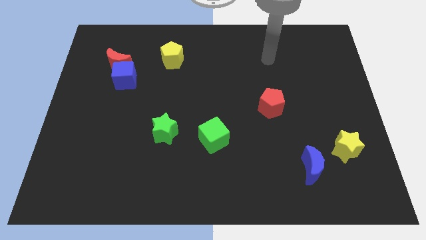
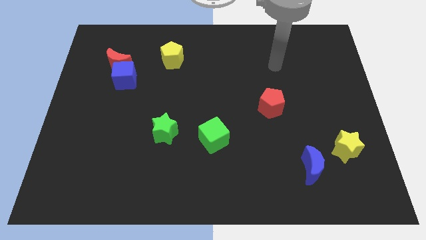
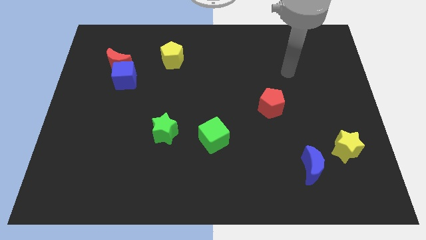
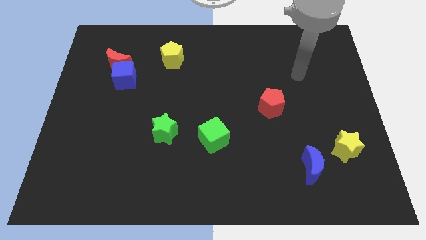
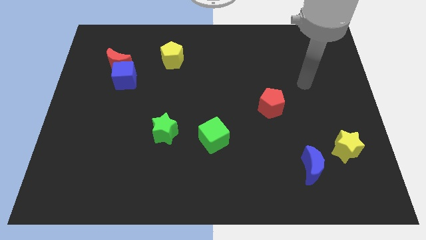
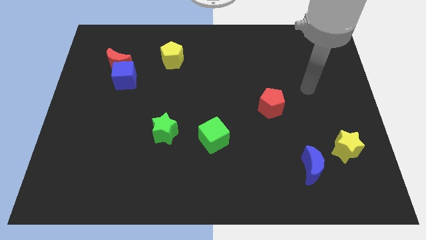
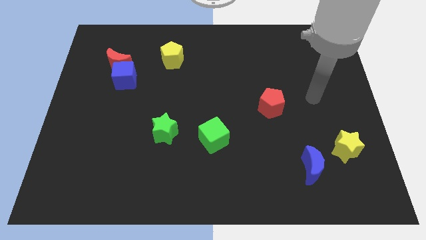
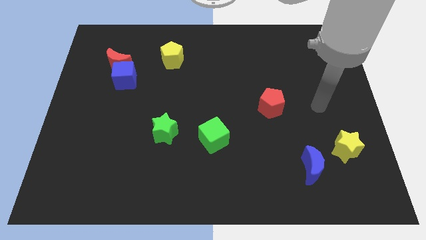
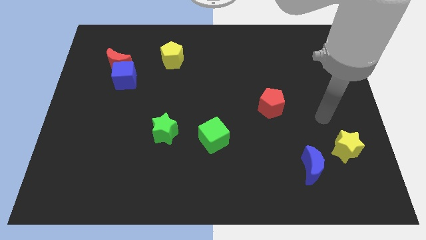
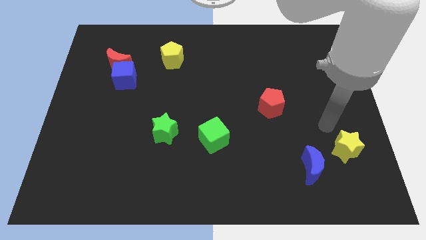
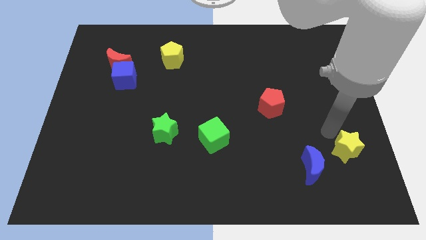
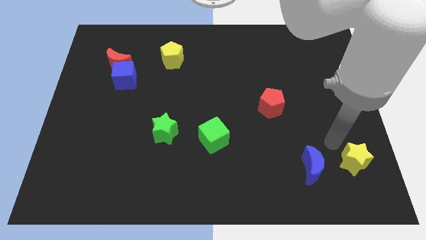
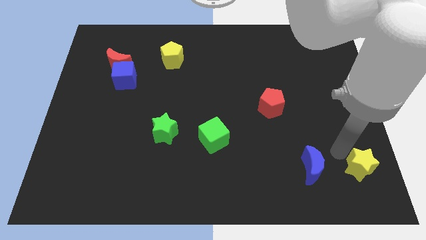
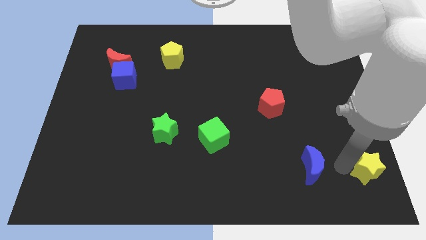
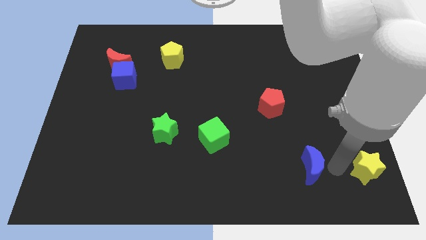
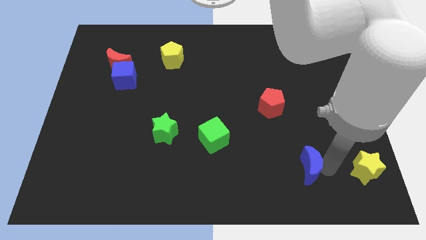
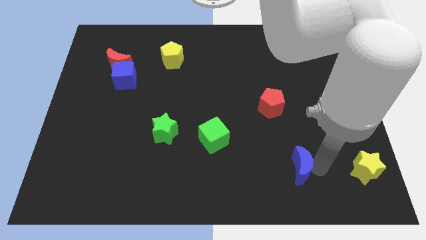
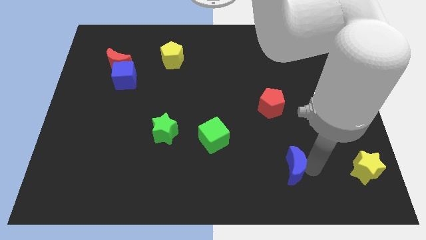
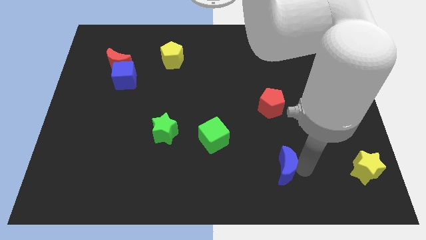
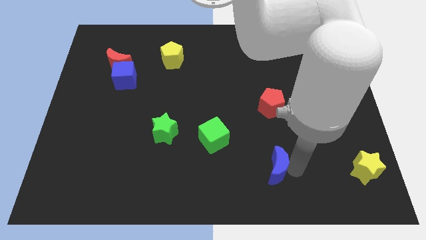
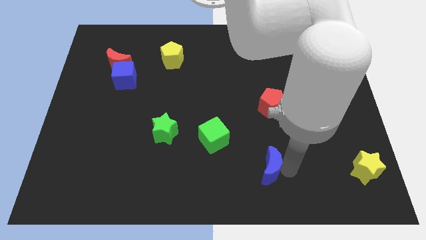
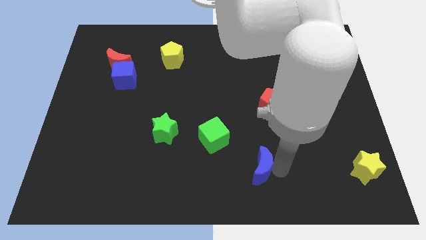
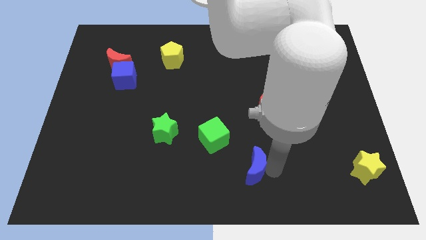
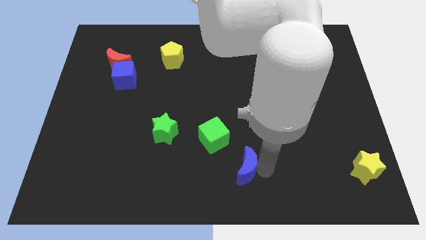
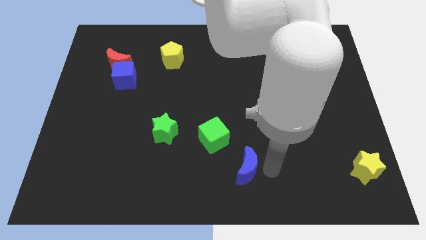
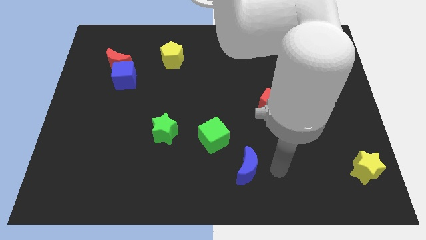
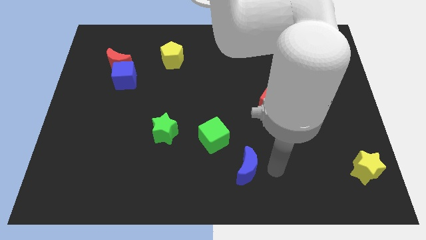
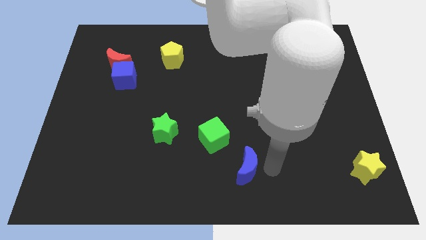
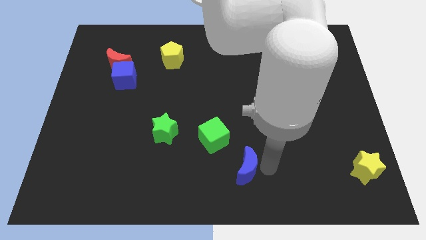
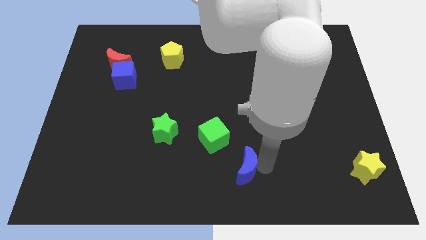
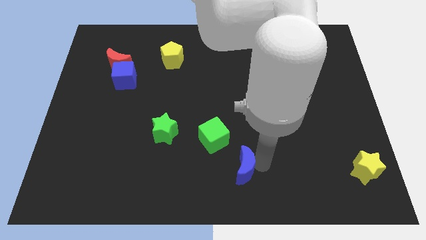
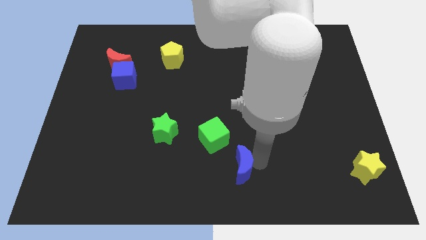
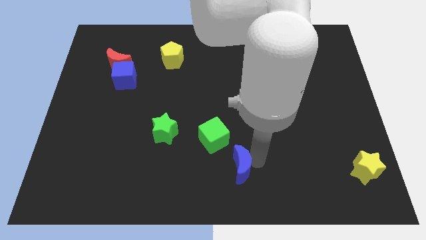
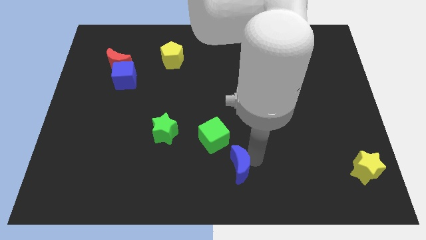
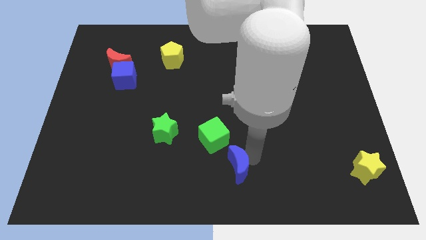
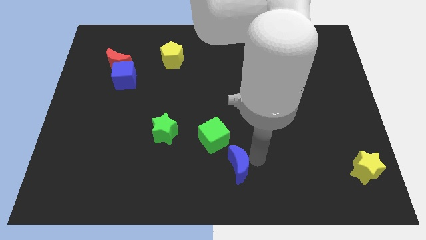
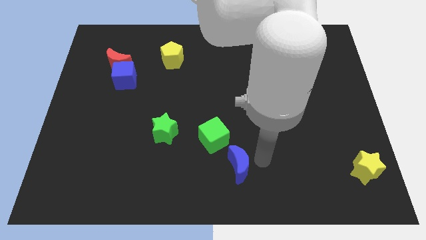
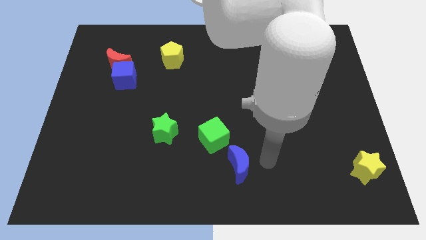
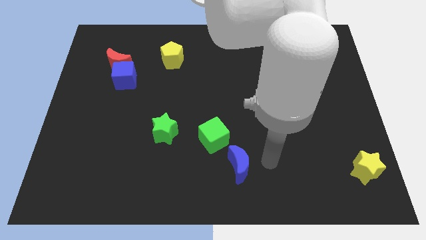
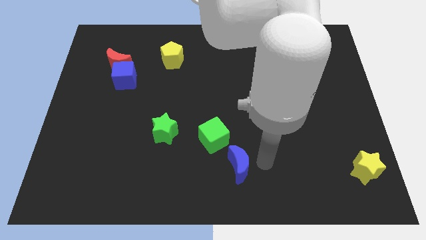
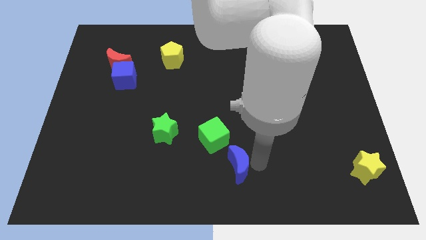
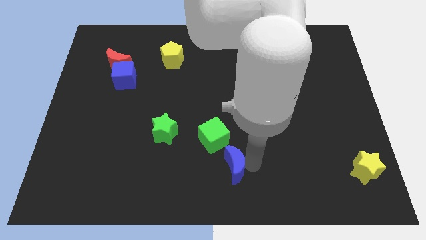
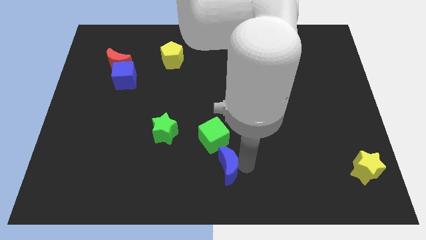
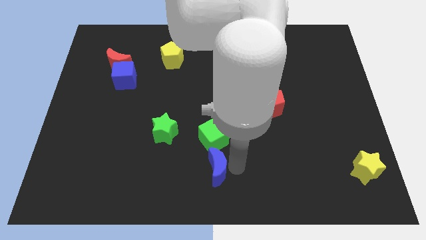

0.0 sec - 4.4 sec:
move the blue moon left

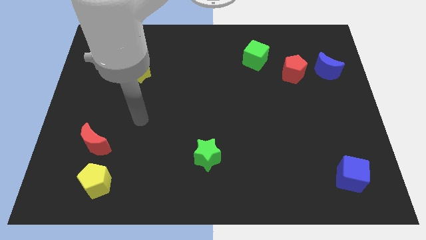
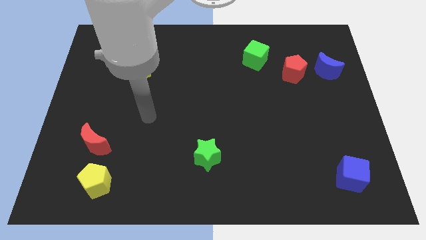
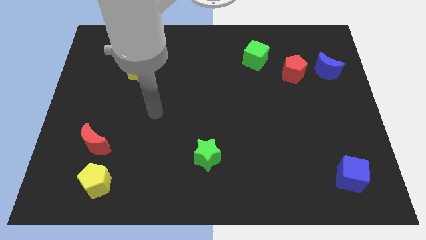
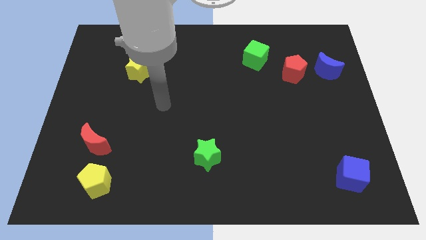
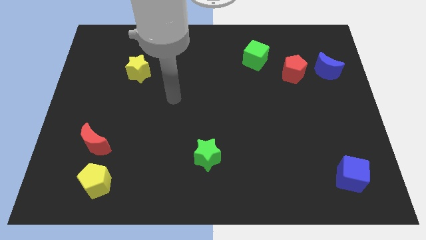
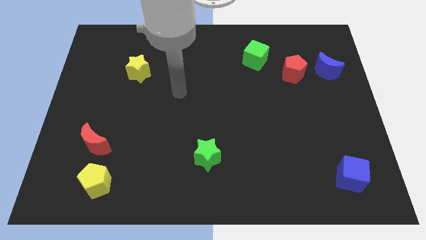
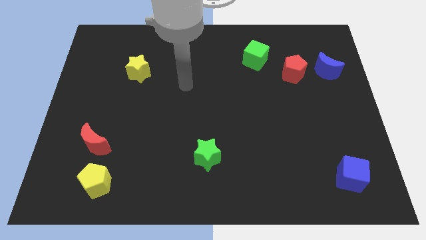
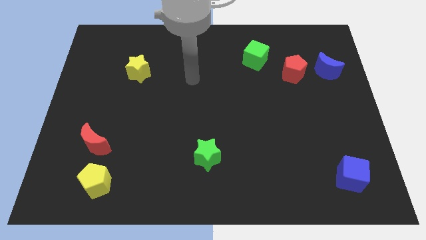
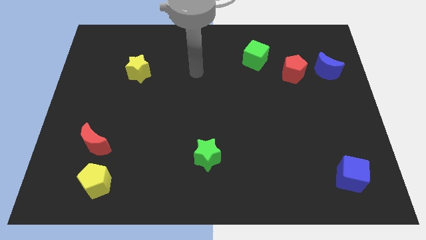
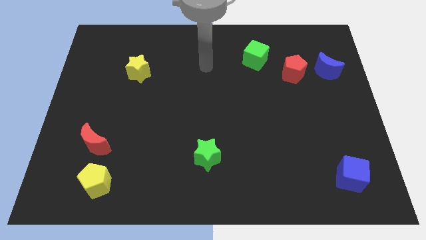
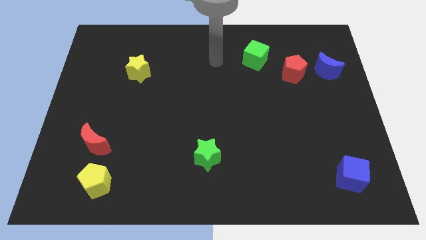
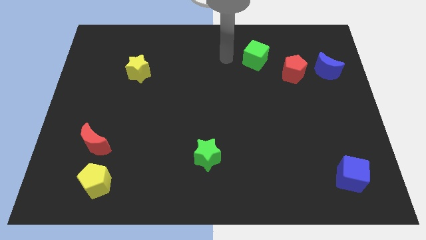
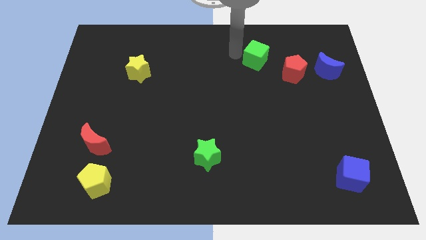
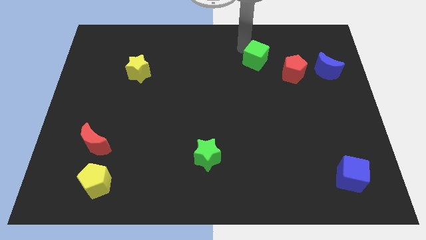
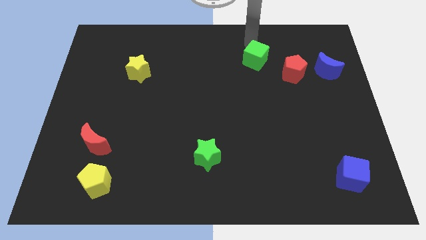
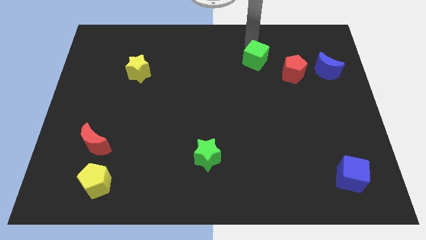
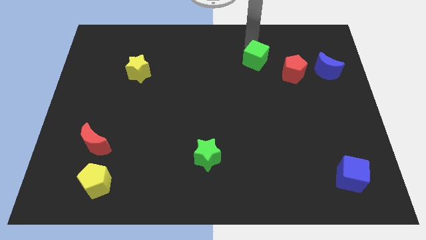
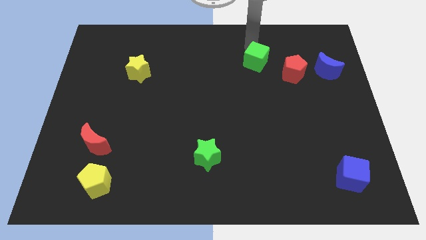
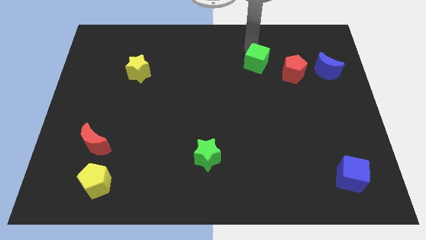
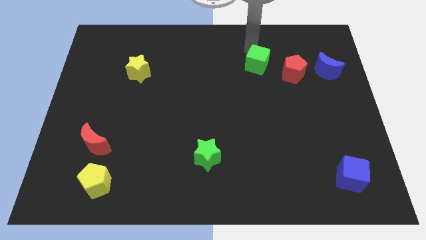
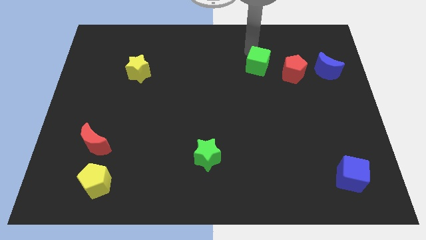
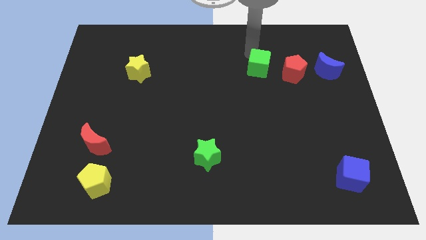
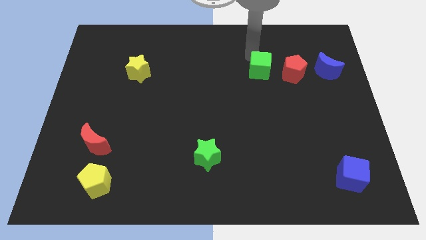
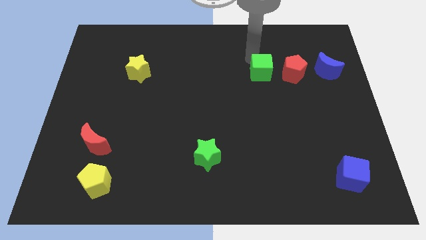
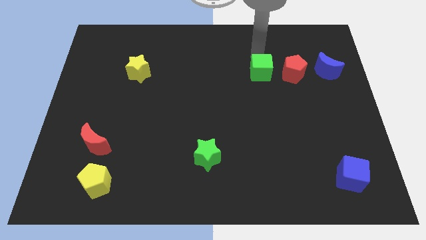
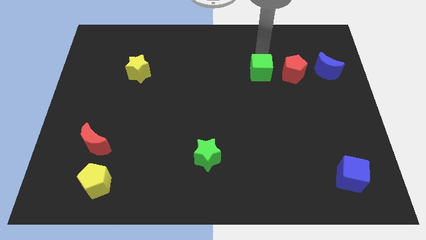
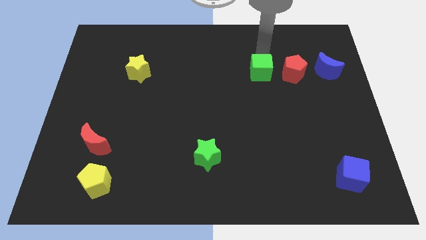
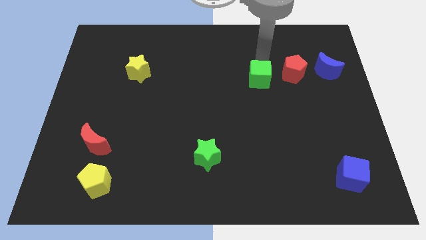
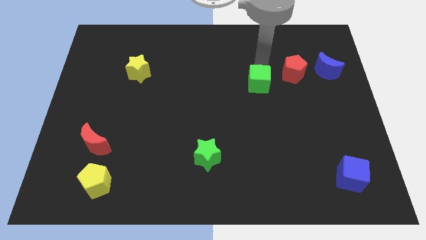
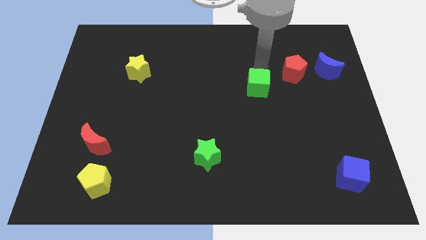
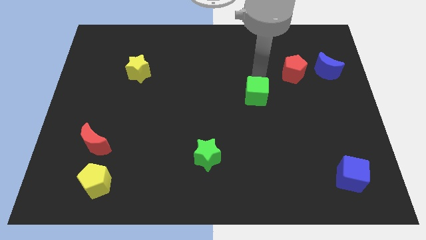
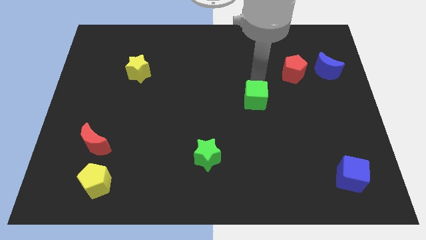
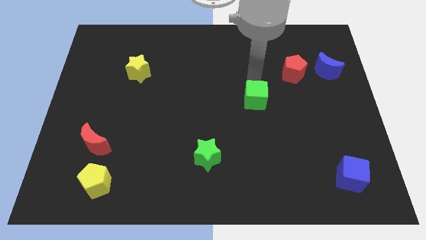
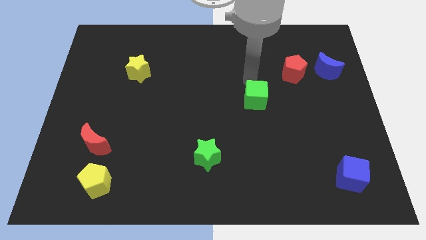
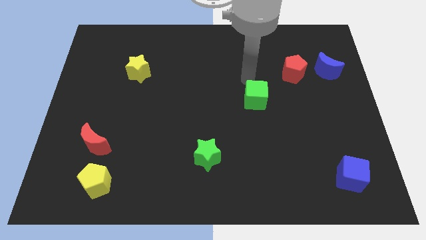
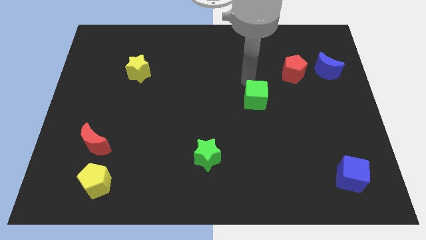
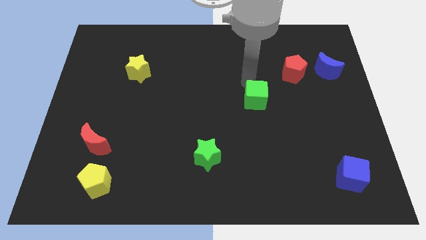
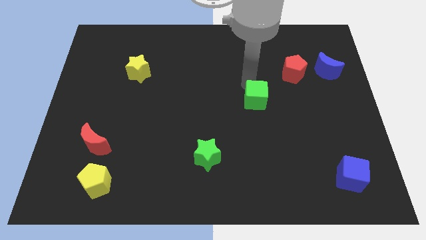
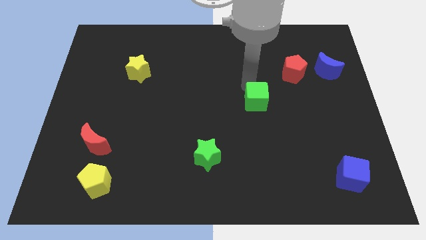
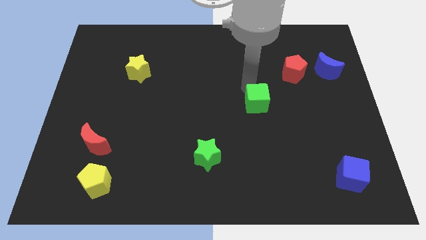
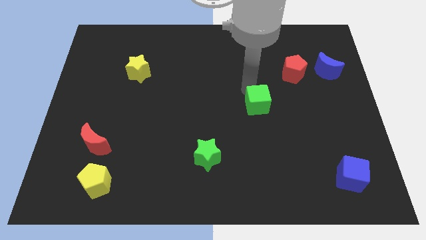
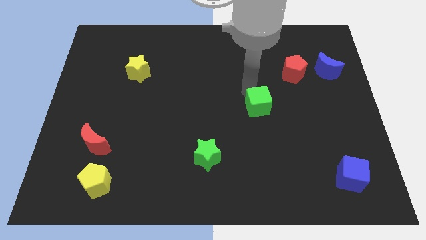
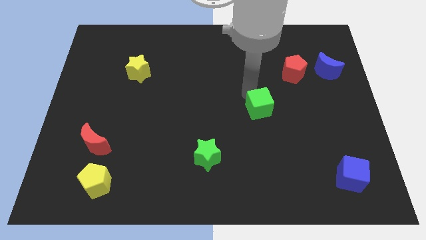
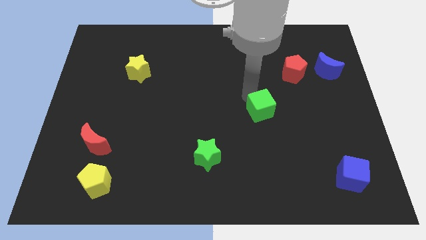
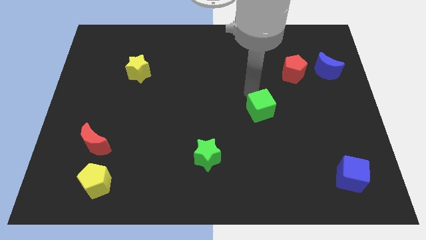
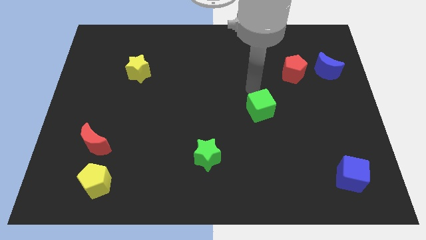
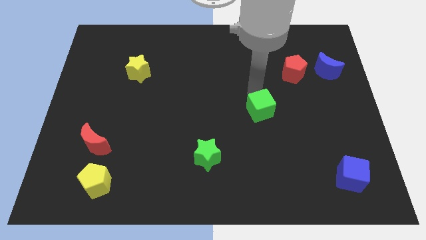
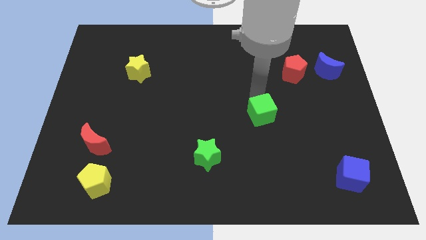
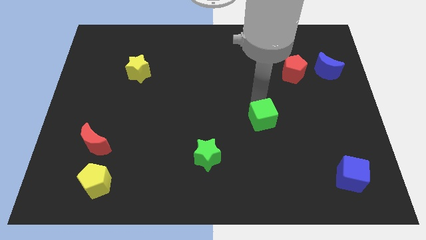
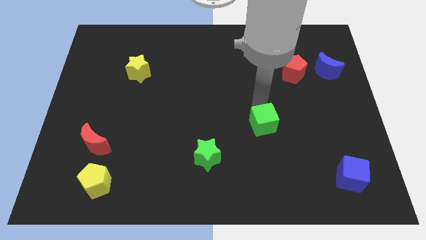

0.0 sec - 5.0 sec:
move the green cube down
